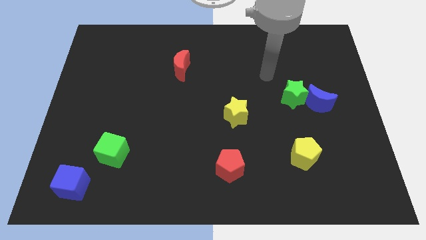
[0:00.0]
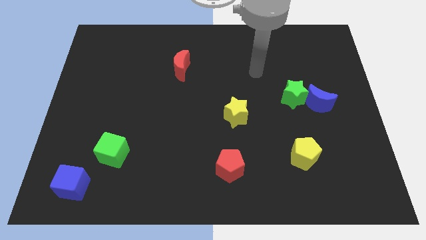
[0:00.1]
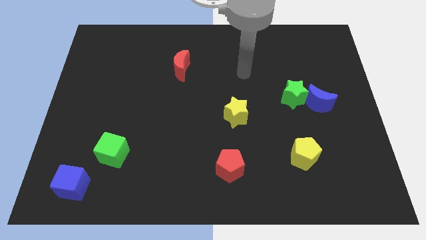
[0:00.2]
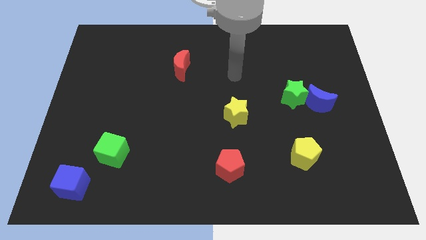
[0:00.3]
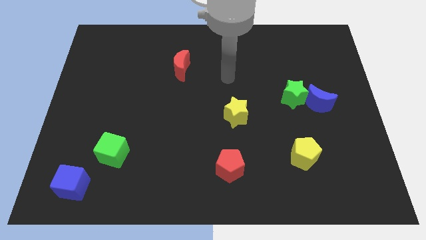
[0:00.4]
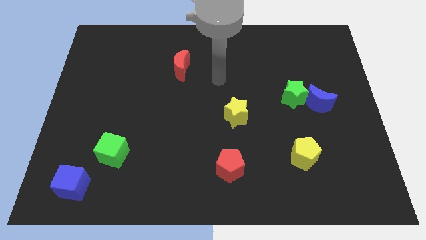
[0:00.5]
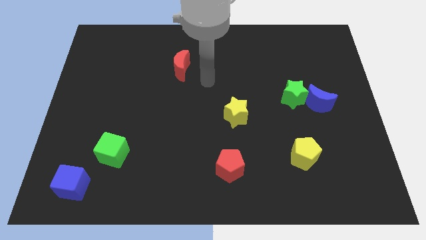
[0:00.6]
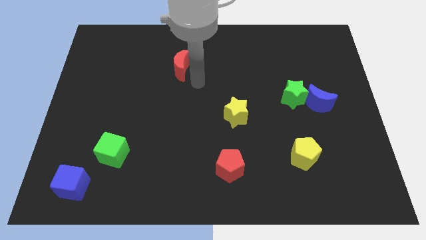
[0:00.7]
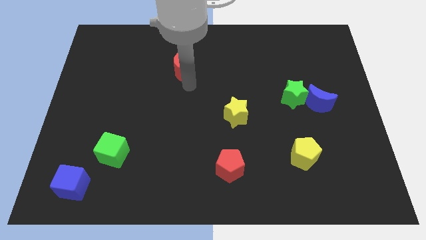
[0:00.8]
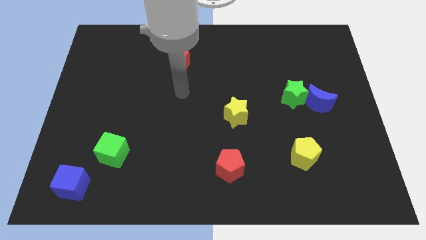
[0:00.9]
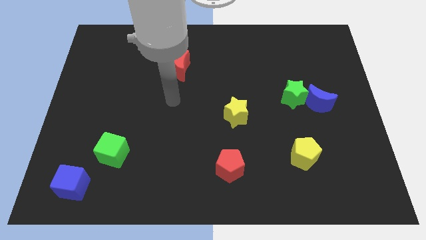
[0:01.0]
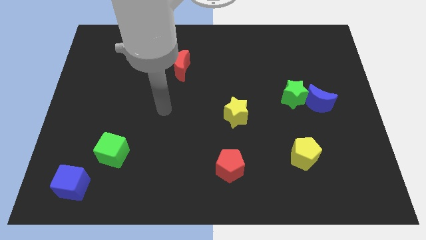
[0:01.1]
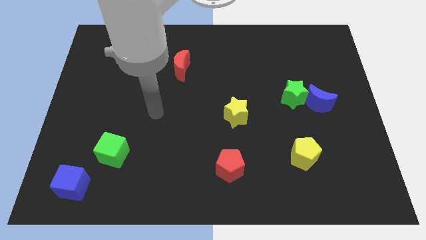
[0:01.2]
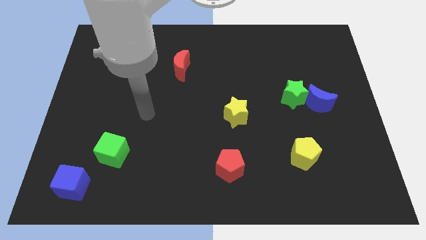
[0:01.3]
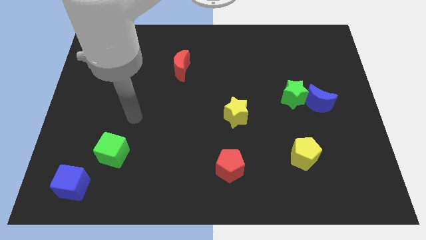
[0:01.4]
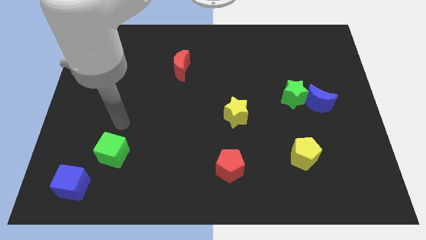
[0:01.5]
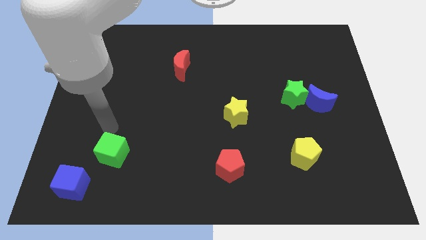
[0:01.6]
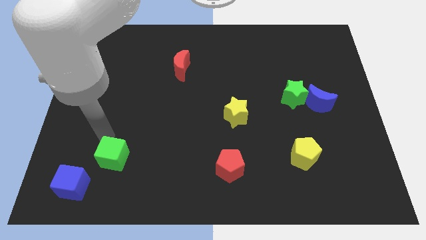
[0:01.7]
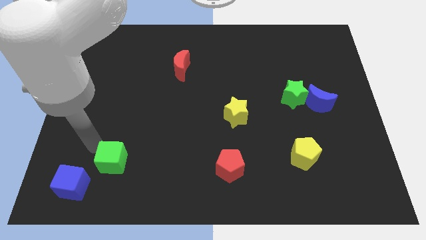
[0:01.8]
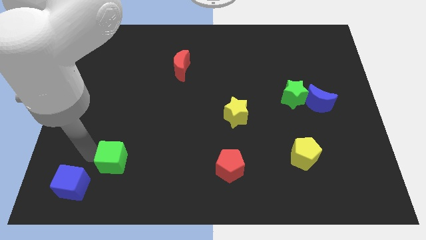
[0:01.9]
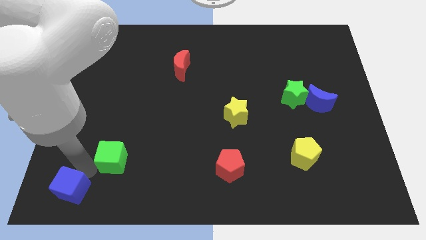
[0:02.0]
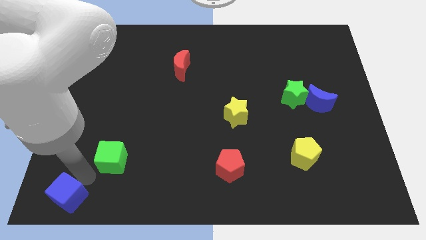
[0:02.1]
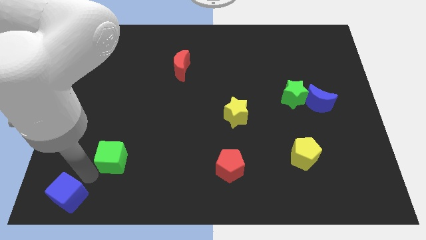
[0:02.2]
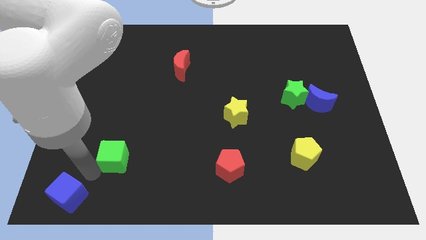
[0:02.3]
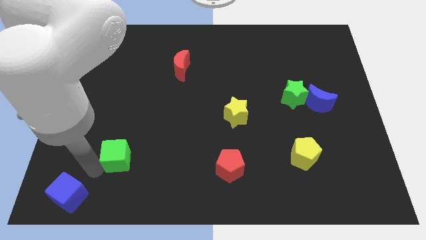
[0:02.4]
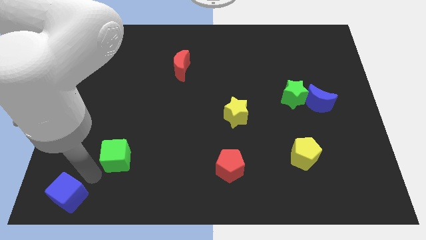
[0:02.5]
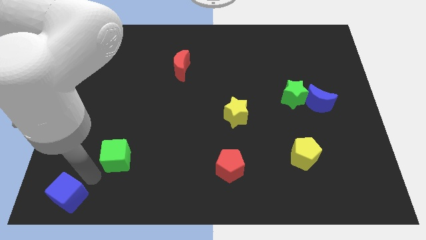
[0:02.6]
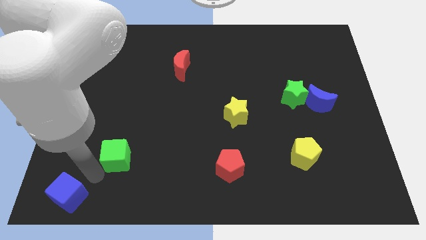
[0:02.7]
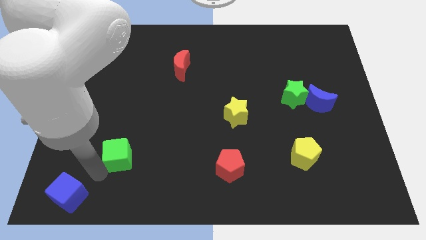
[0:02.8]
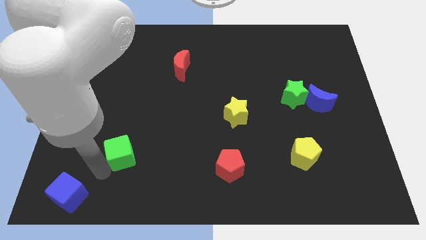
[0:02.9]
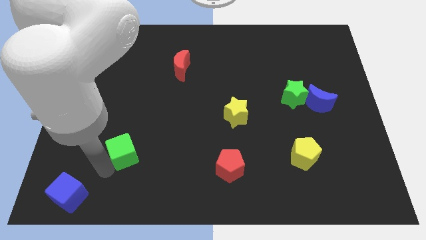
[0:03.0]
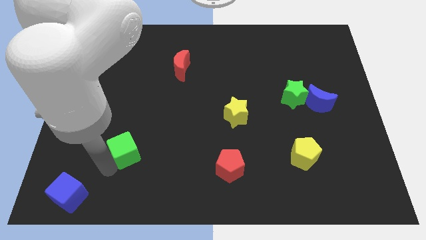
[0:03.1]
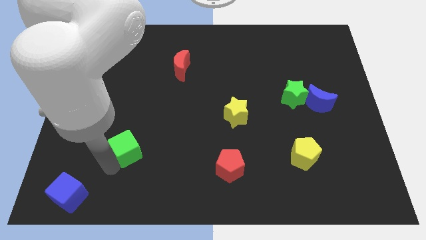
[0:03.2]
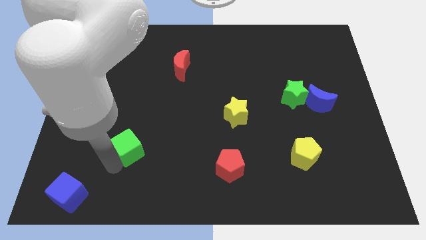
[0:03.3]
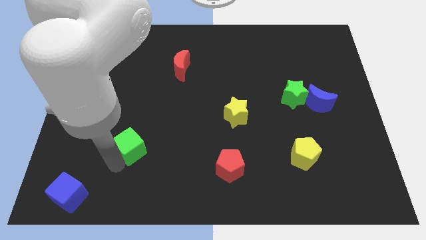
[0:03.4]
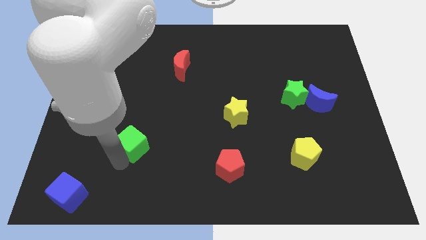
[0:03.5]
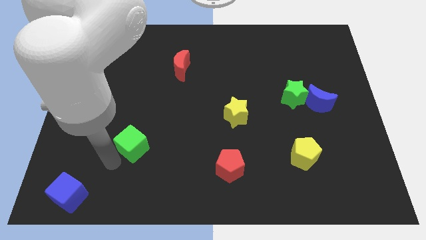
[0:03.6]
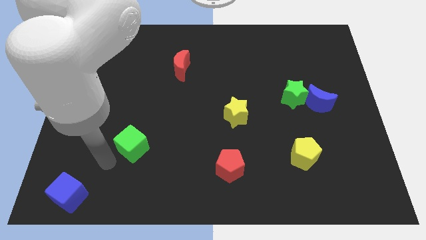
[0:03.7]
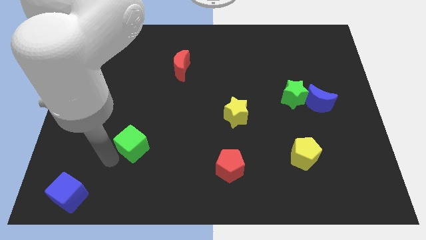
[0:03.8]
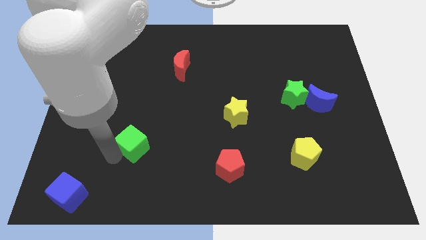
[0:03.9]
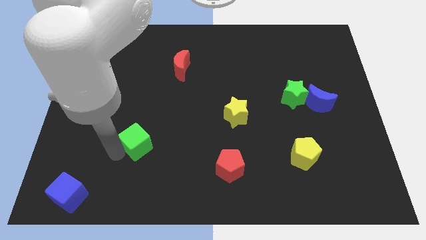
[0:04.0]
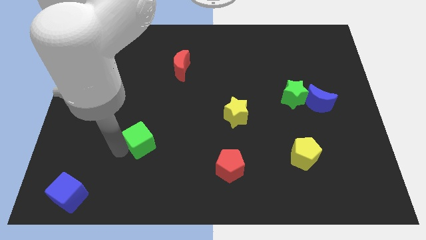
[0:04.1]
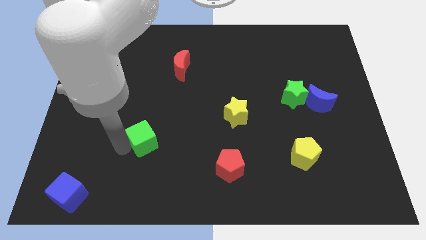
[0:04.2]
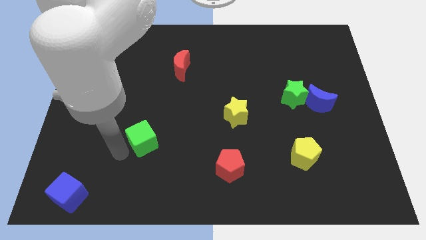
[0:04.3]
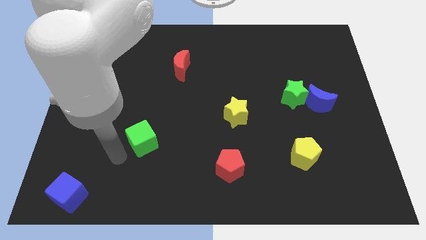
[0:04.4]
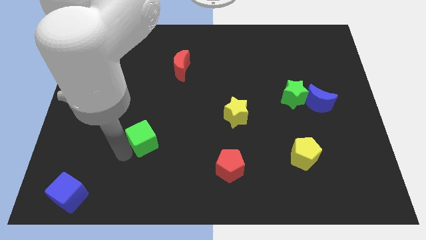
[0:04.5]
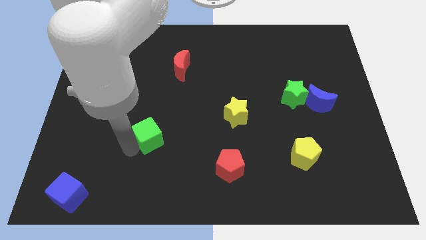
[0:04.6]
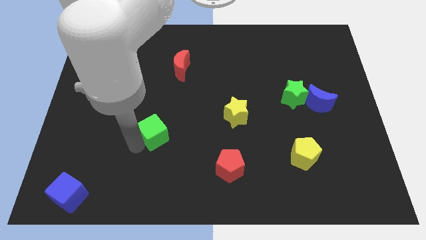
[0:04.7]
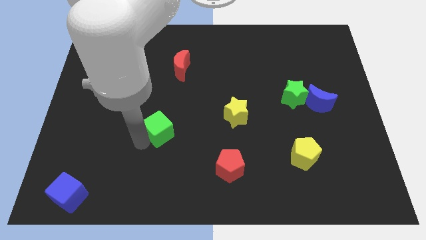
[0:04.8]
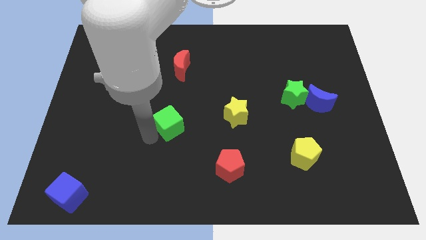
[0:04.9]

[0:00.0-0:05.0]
move the green cube to the center of the board

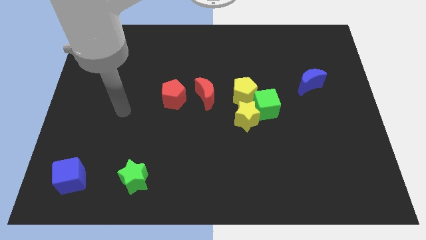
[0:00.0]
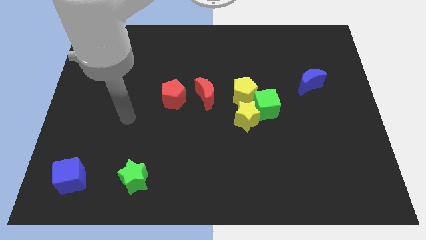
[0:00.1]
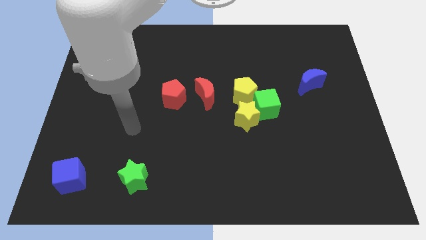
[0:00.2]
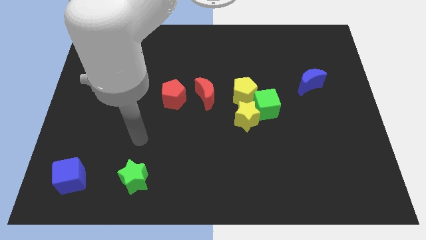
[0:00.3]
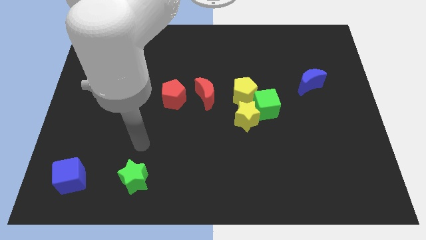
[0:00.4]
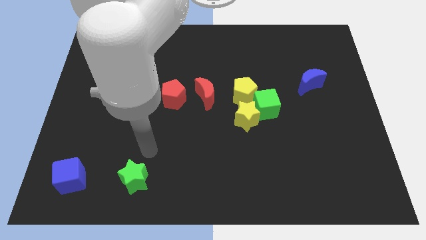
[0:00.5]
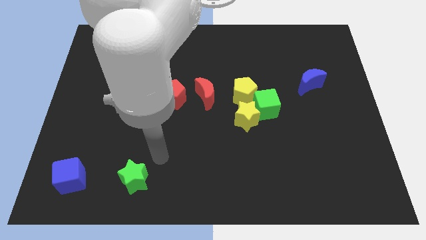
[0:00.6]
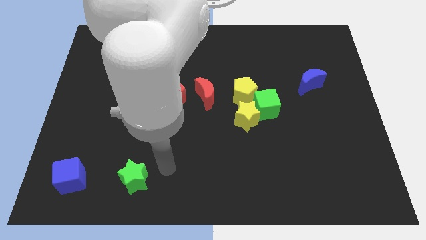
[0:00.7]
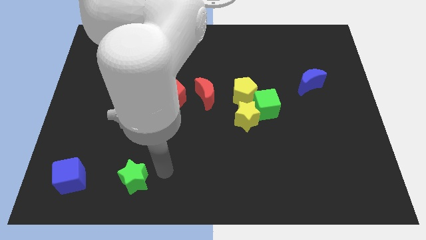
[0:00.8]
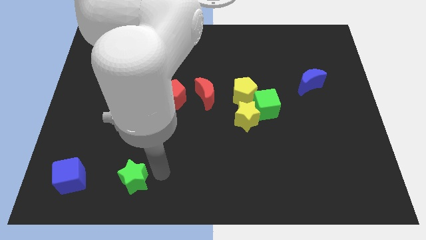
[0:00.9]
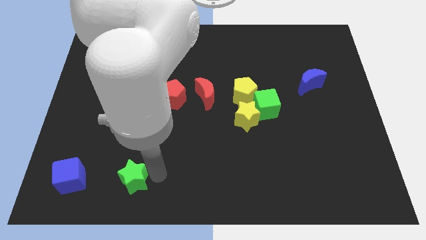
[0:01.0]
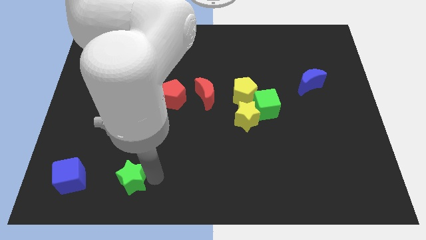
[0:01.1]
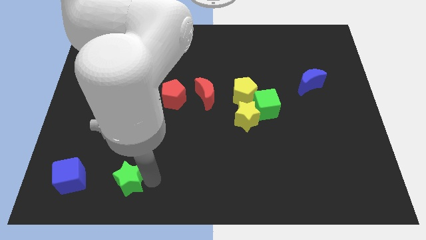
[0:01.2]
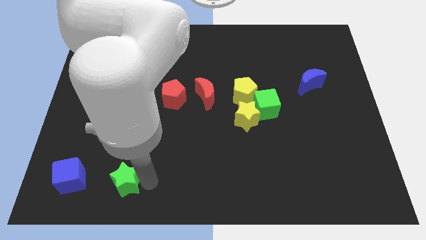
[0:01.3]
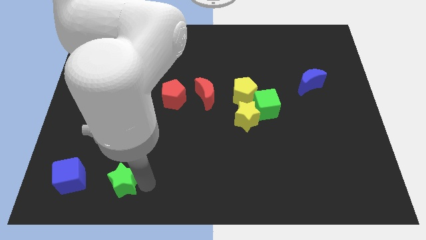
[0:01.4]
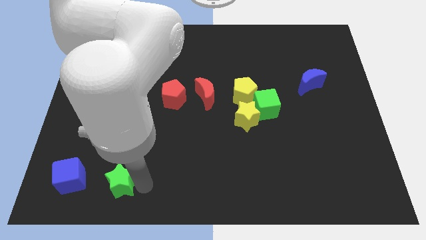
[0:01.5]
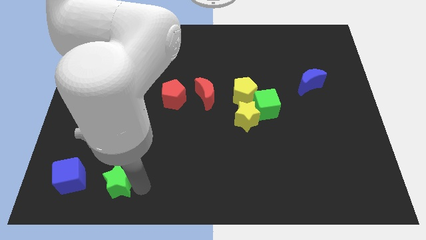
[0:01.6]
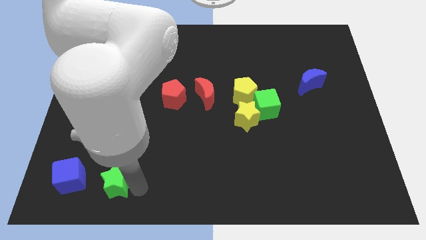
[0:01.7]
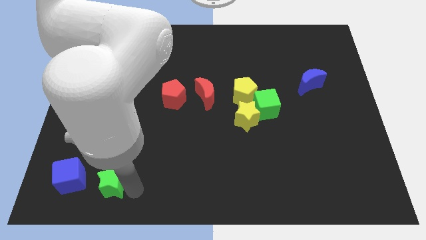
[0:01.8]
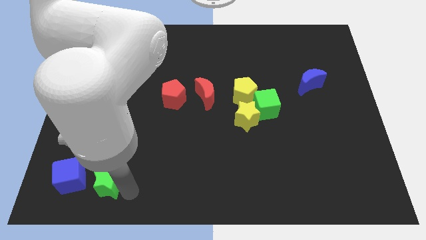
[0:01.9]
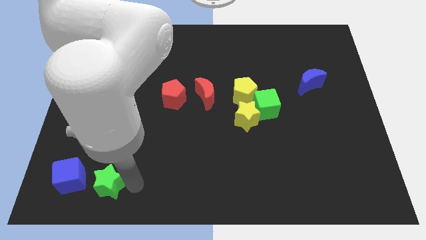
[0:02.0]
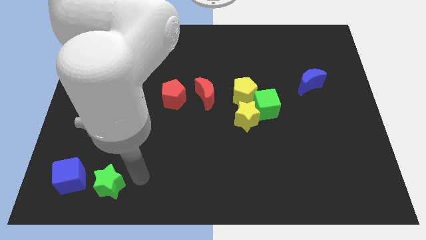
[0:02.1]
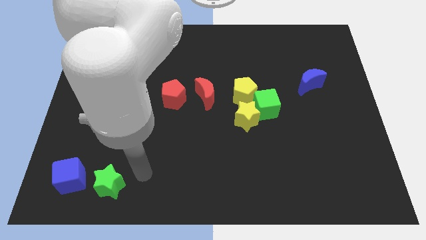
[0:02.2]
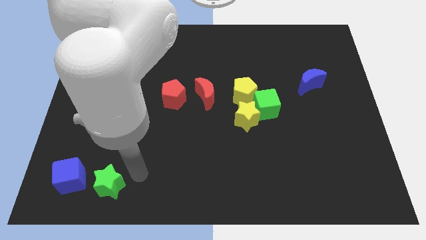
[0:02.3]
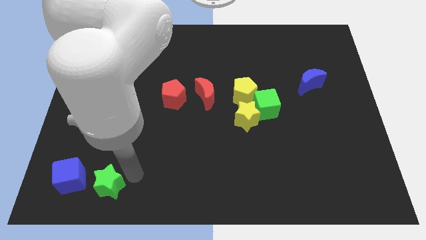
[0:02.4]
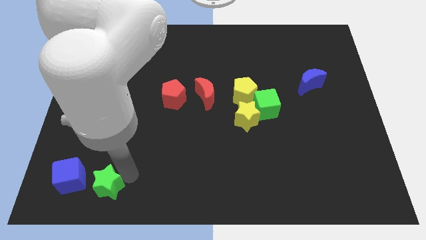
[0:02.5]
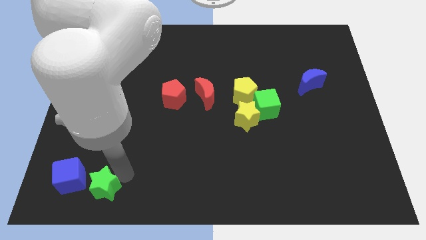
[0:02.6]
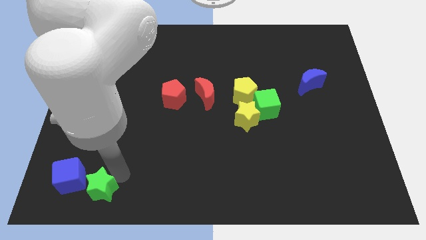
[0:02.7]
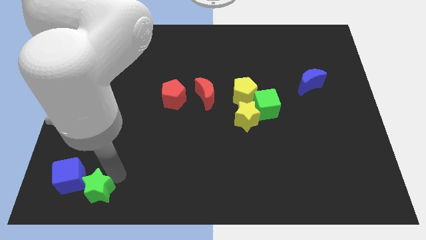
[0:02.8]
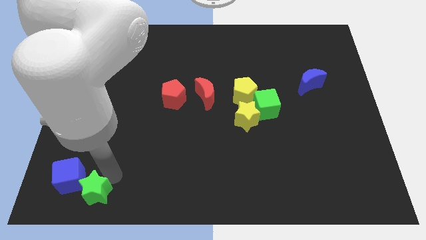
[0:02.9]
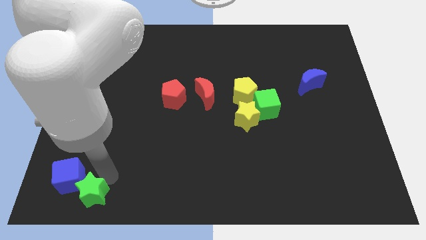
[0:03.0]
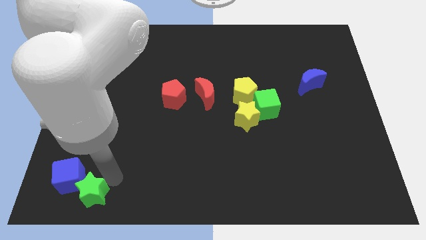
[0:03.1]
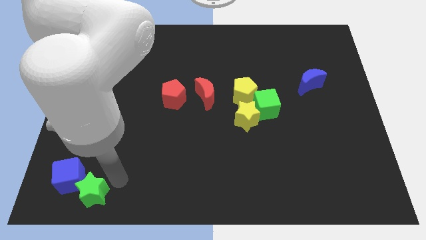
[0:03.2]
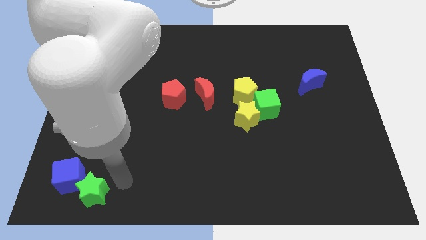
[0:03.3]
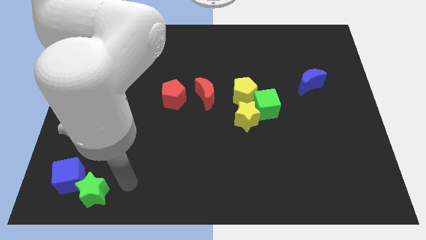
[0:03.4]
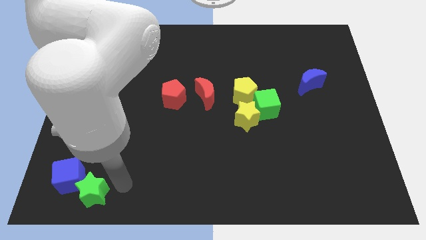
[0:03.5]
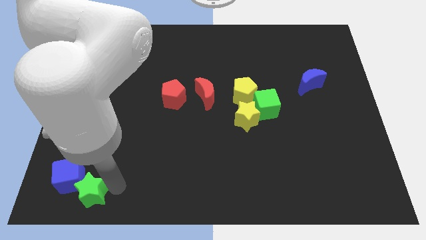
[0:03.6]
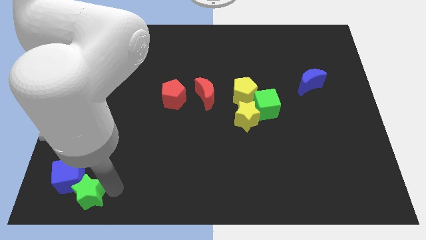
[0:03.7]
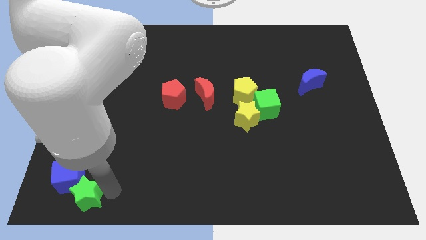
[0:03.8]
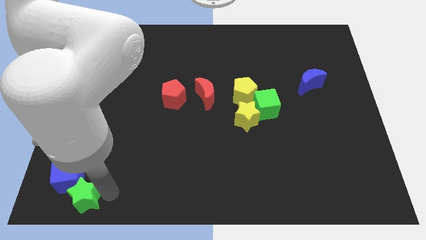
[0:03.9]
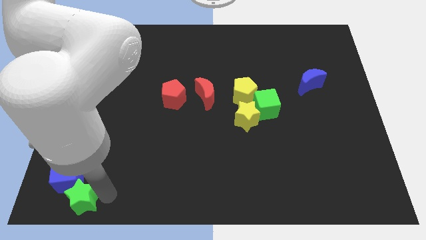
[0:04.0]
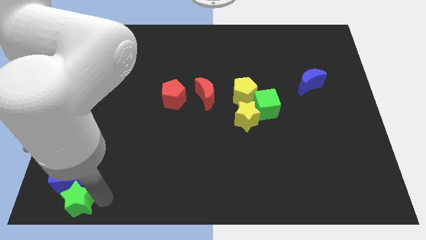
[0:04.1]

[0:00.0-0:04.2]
move the green star to the bottom left
